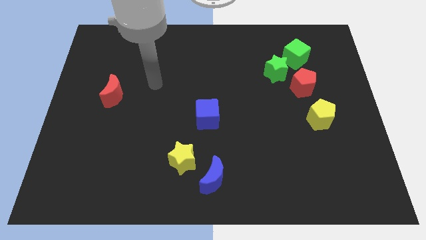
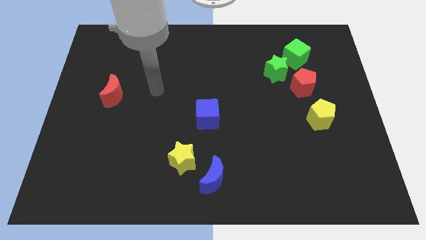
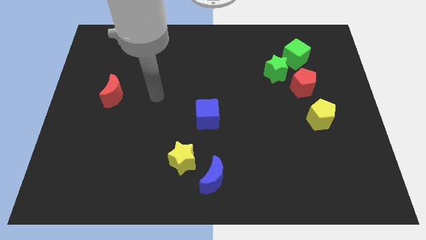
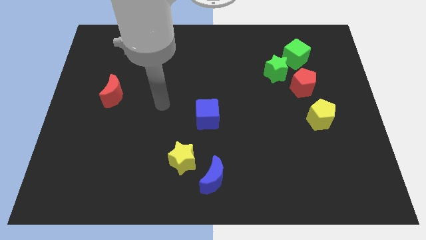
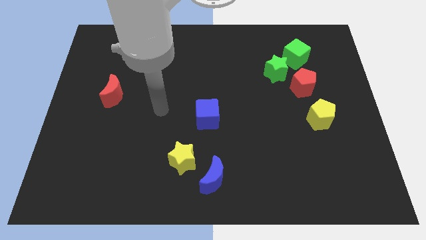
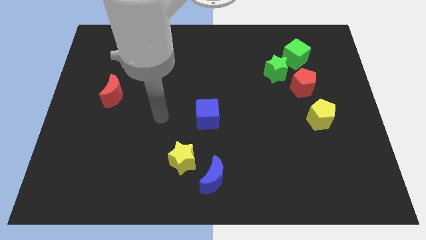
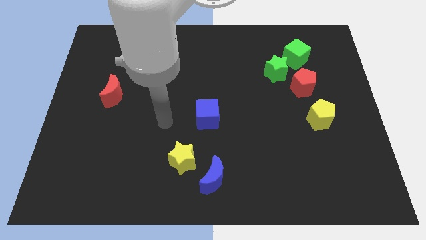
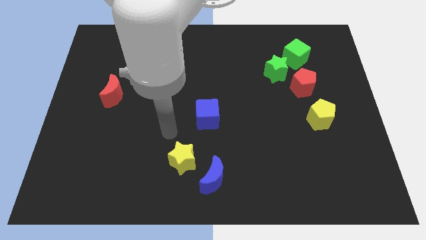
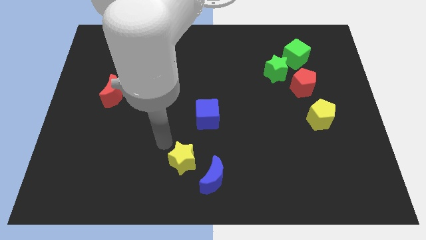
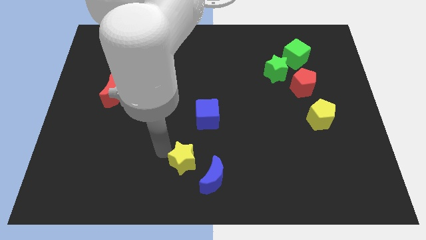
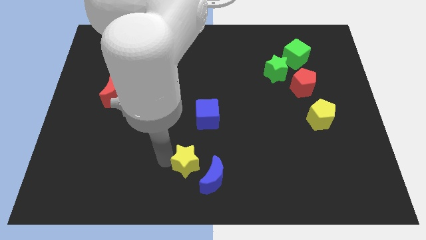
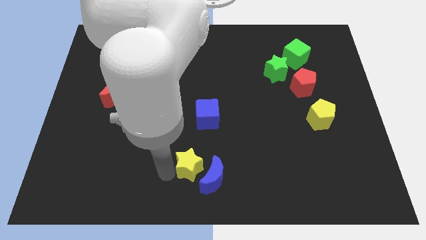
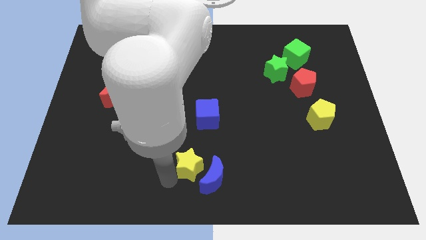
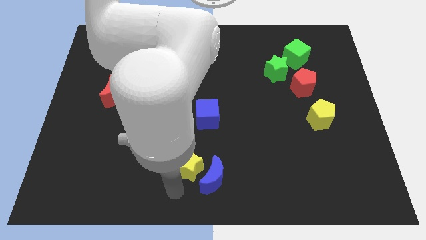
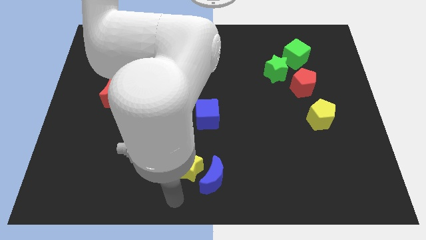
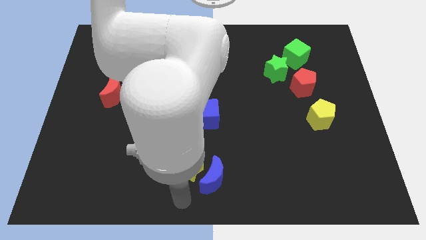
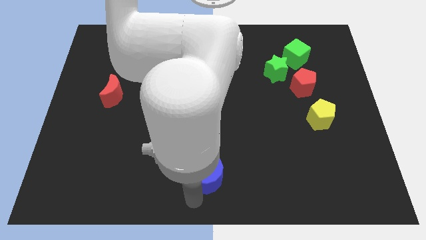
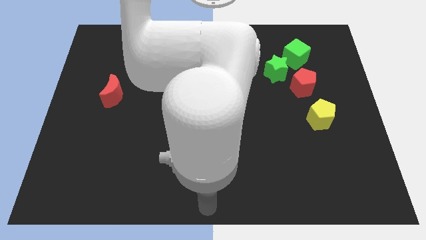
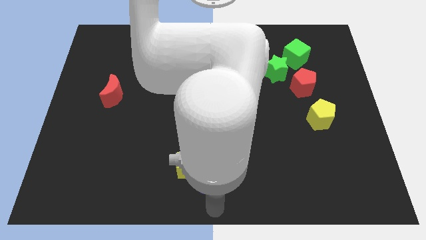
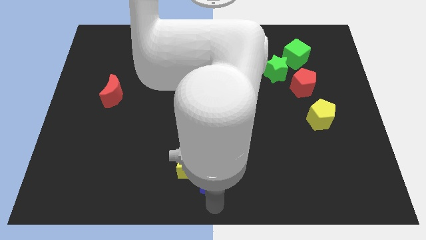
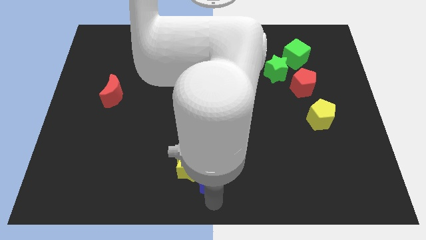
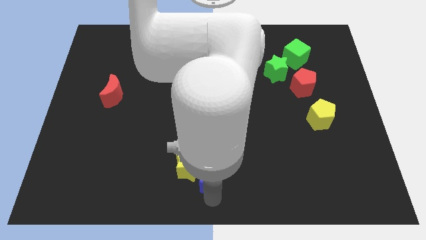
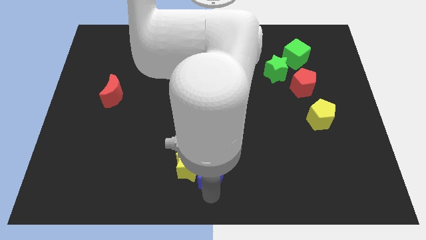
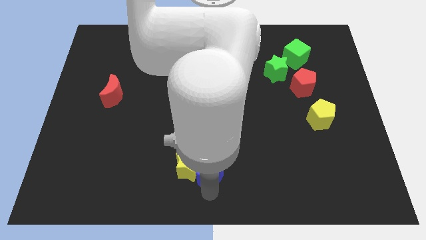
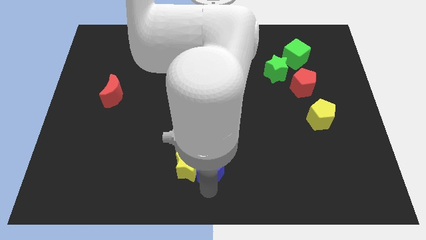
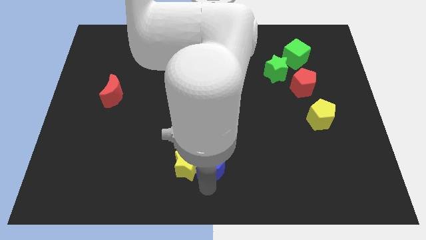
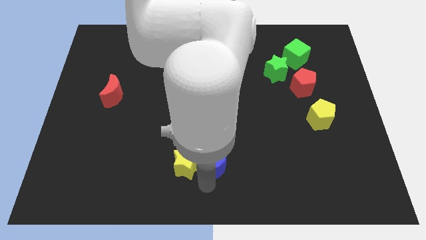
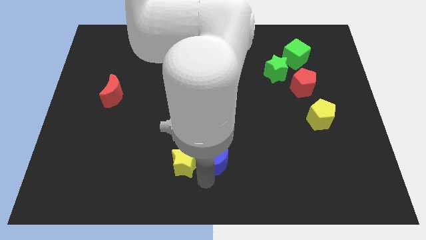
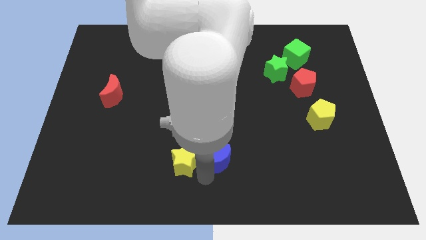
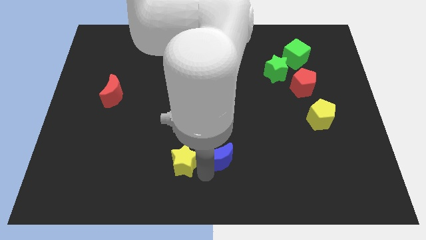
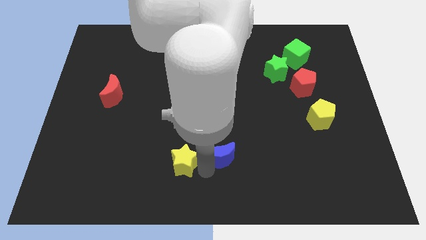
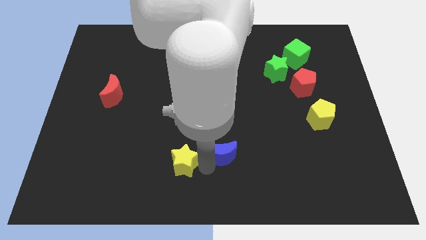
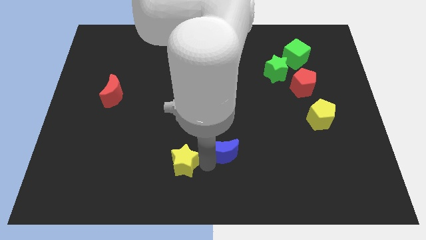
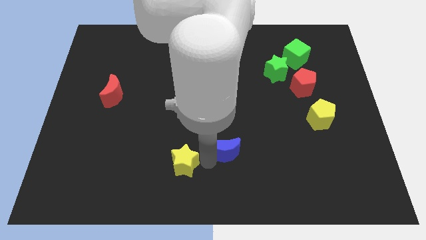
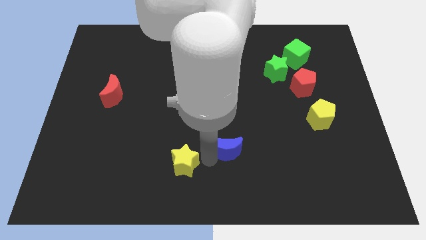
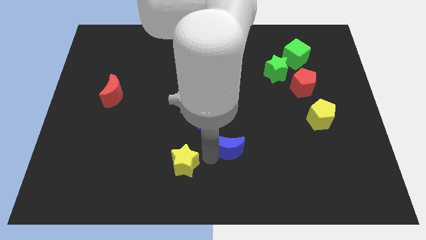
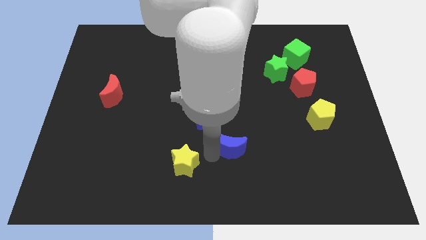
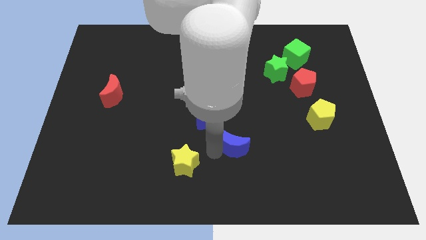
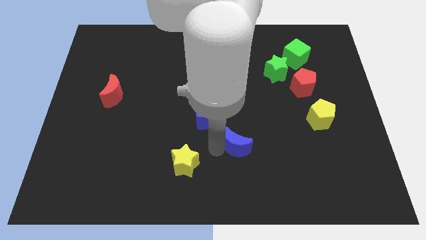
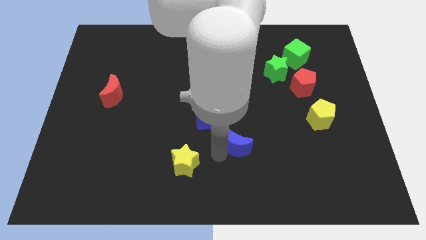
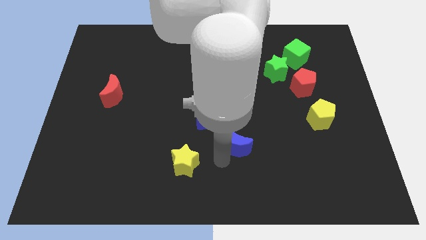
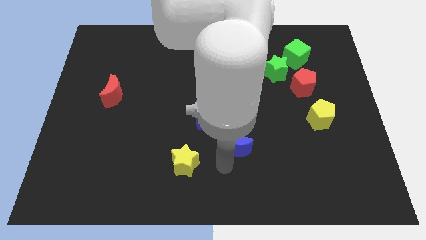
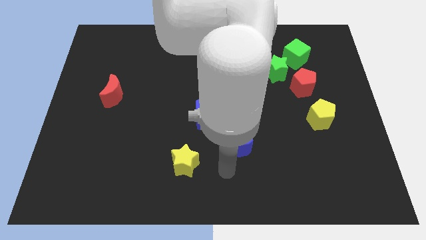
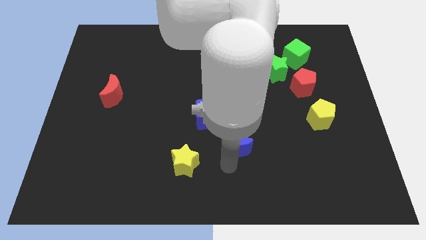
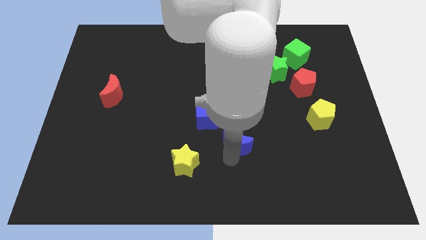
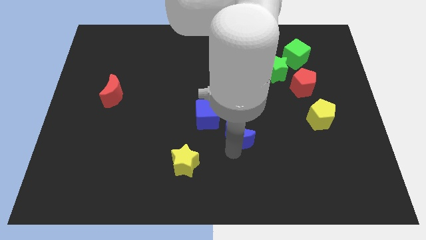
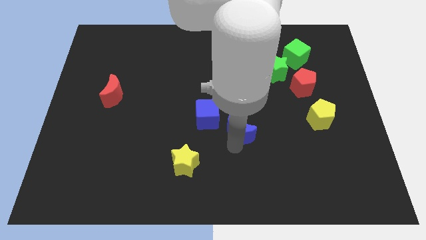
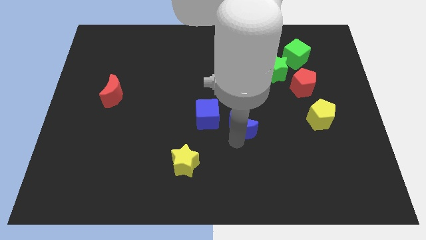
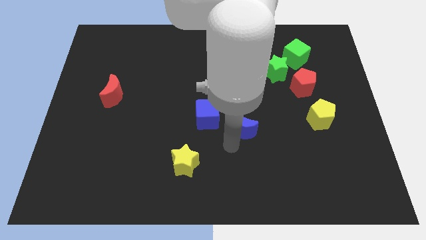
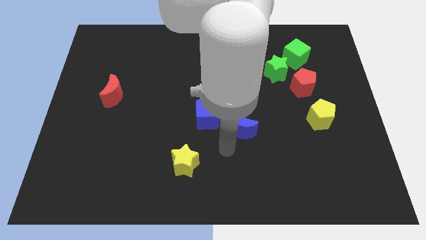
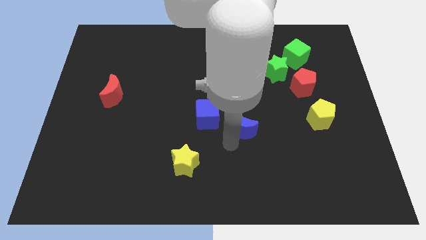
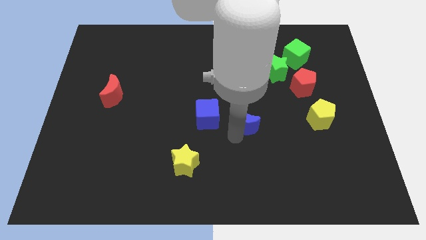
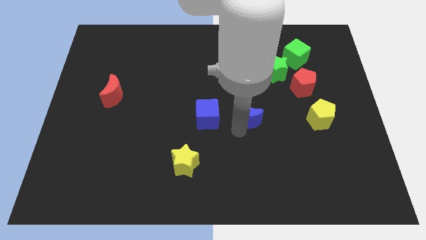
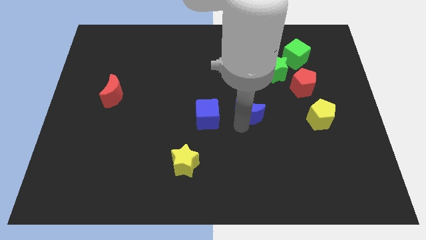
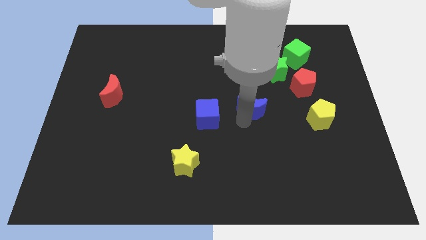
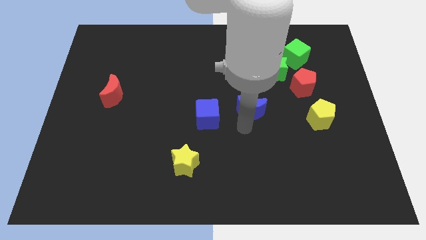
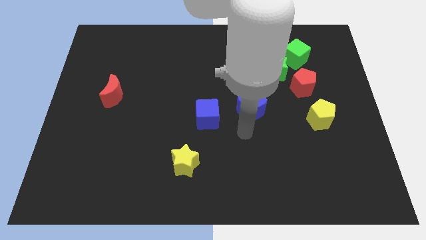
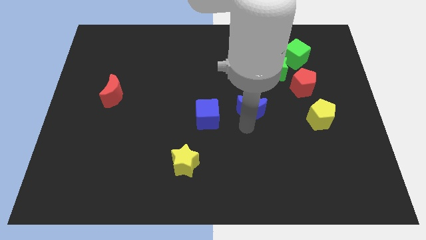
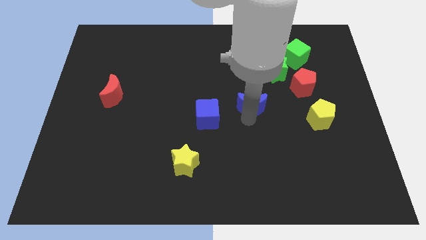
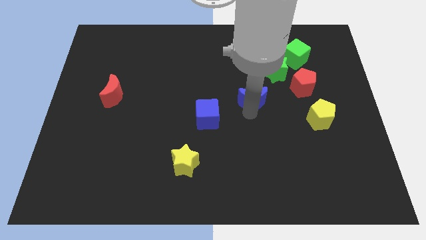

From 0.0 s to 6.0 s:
slide the blue moon to the bottom left side of the green star

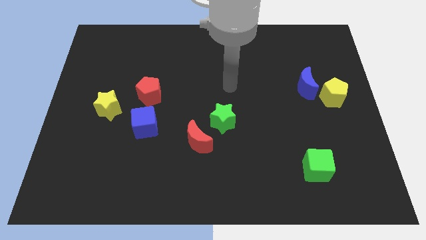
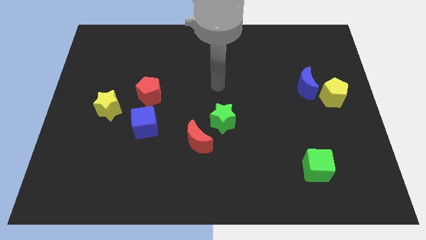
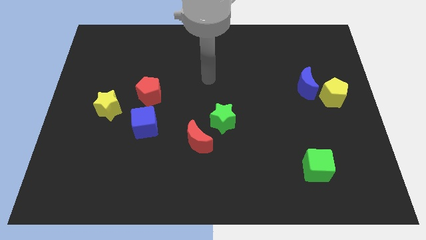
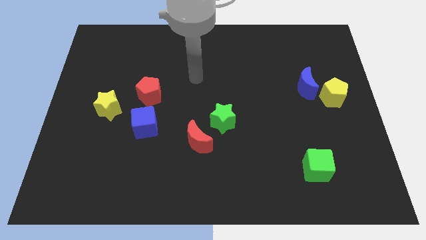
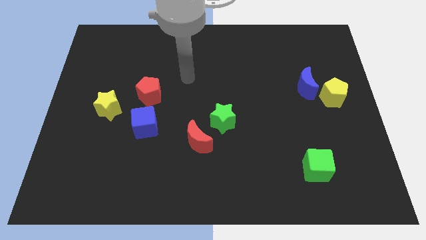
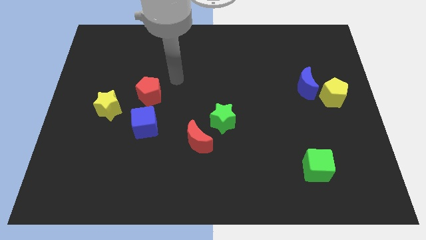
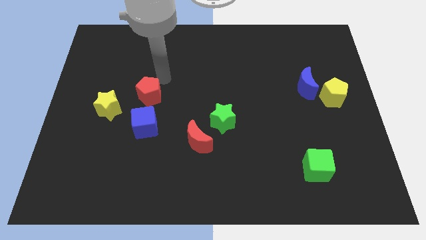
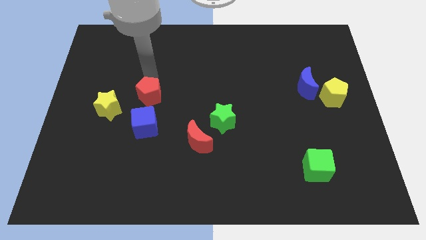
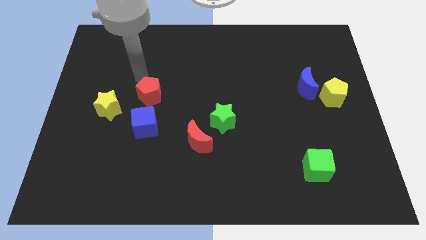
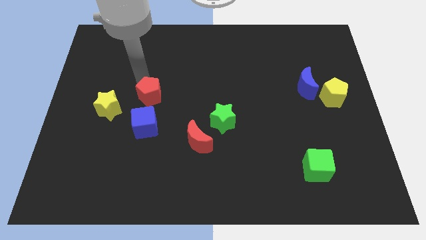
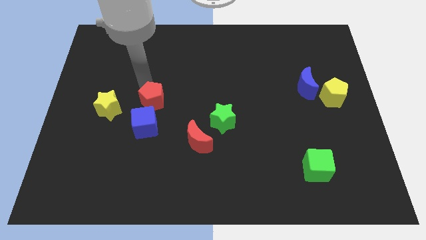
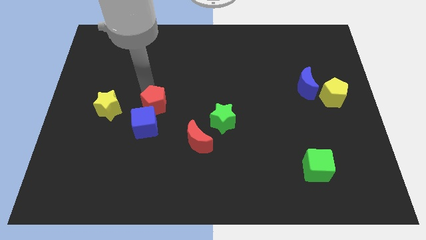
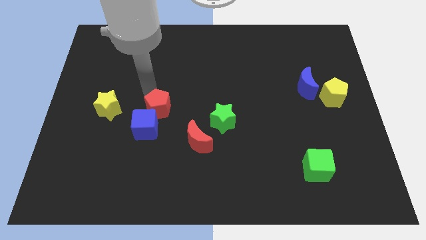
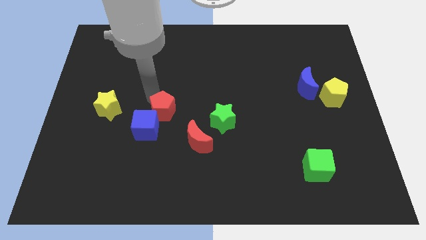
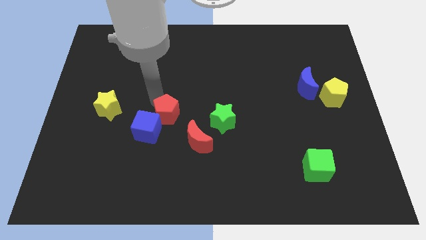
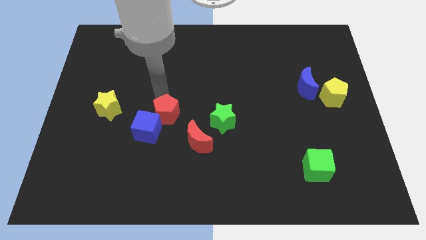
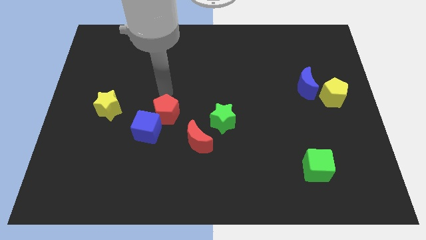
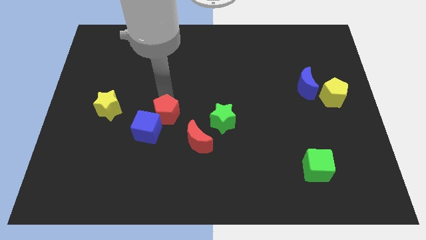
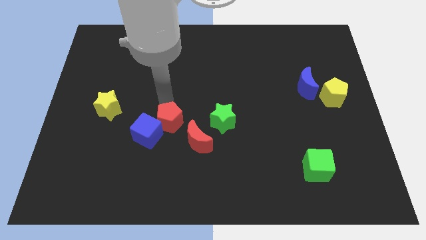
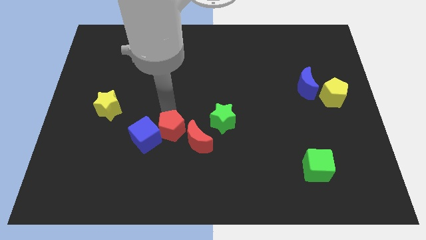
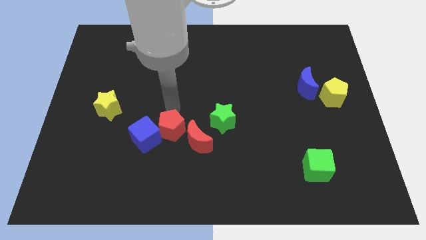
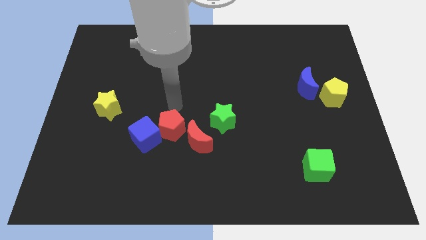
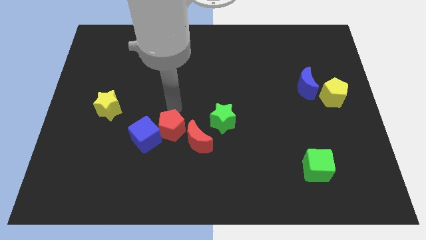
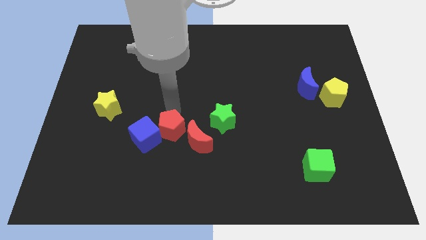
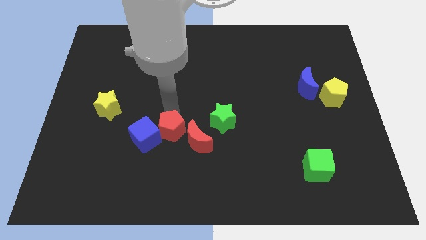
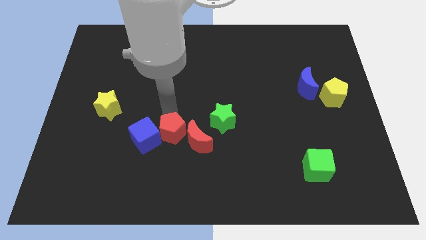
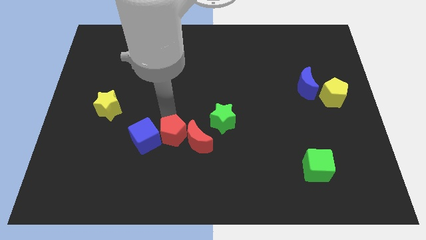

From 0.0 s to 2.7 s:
slide the red pentagon diagonally down and to the right of the blue cube
